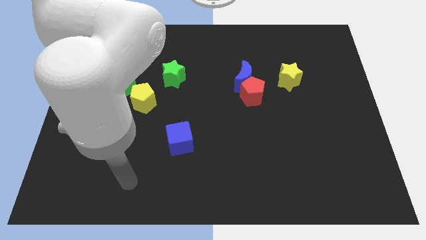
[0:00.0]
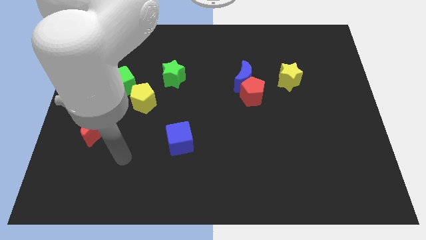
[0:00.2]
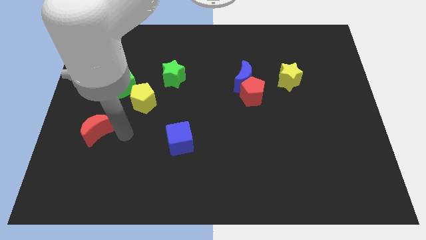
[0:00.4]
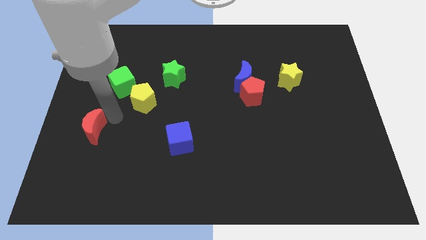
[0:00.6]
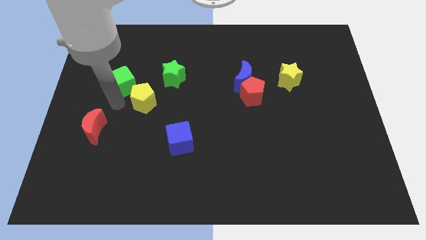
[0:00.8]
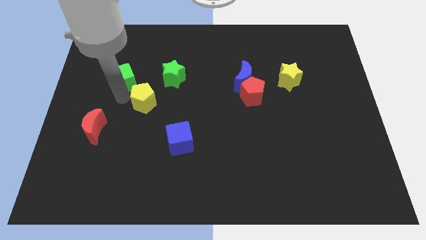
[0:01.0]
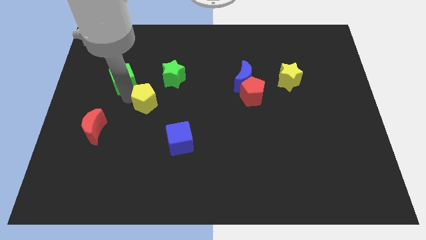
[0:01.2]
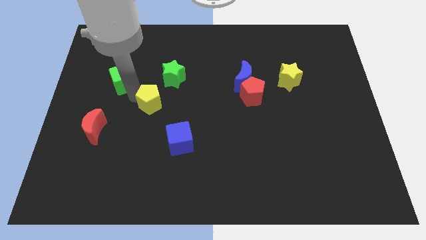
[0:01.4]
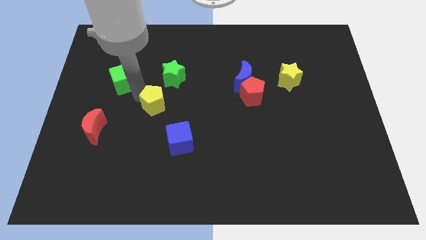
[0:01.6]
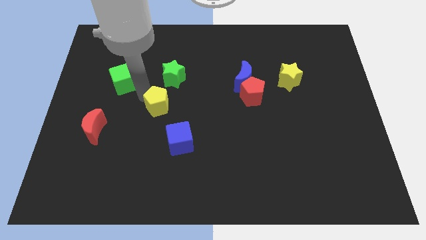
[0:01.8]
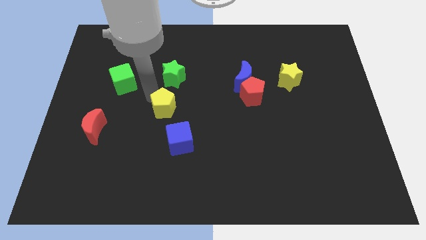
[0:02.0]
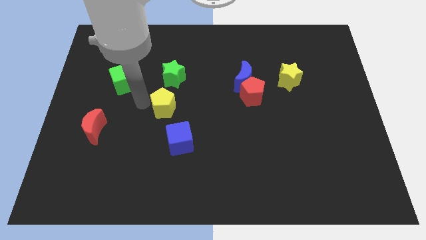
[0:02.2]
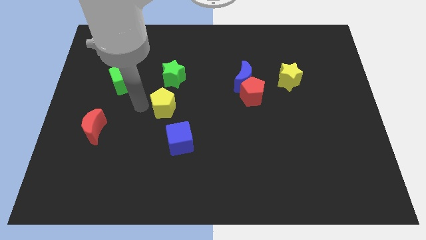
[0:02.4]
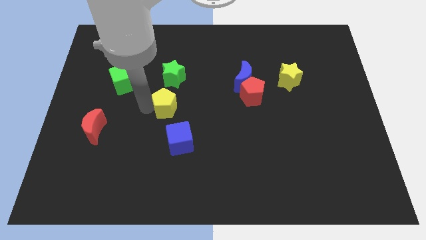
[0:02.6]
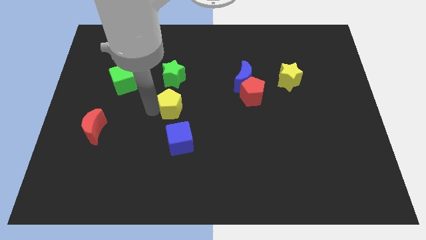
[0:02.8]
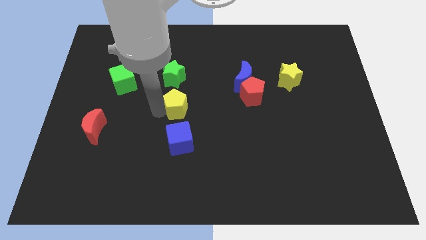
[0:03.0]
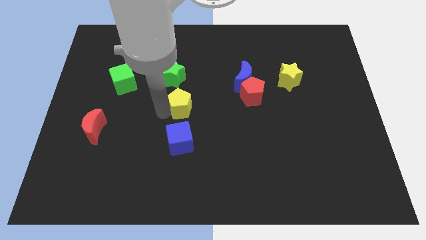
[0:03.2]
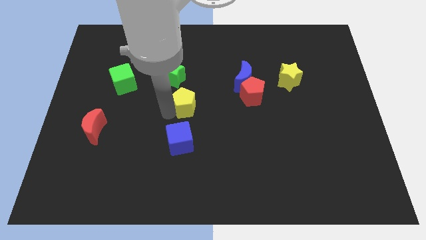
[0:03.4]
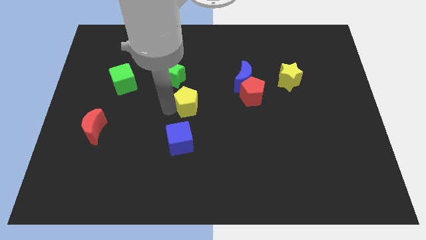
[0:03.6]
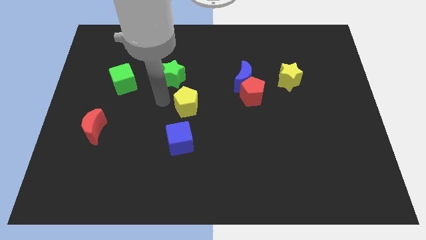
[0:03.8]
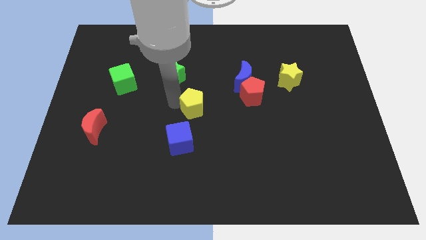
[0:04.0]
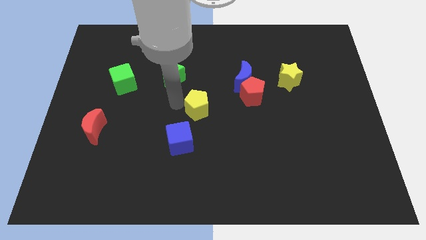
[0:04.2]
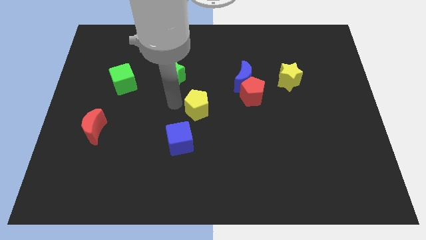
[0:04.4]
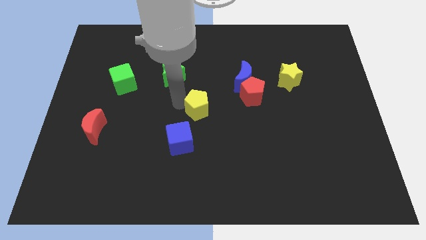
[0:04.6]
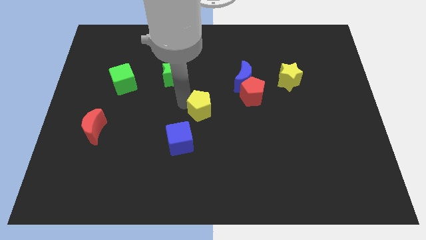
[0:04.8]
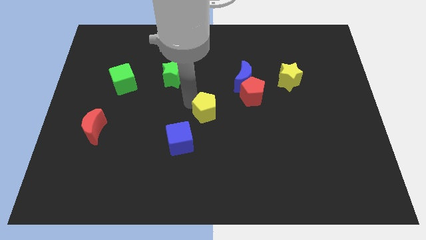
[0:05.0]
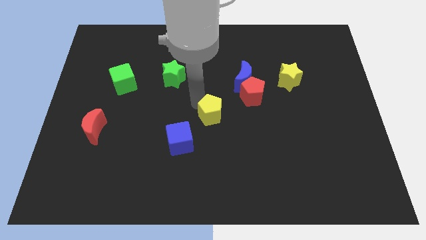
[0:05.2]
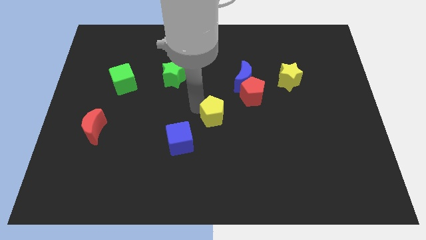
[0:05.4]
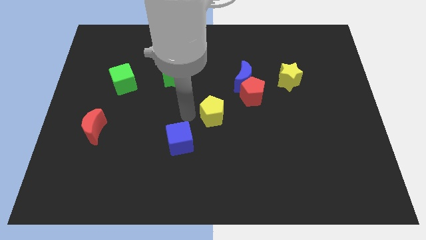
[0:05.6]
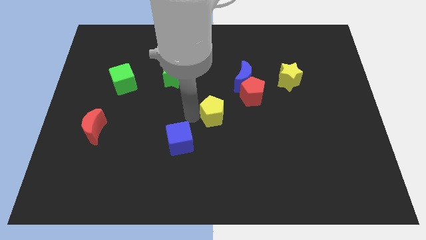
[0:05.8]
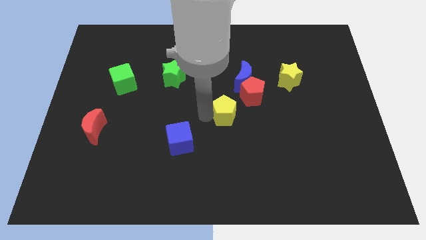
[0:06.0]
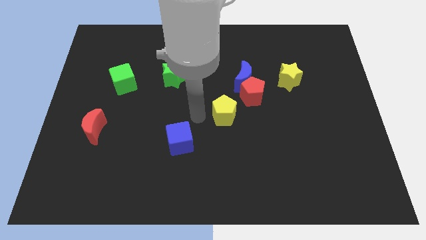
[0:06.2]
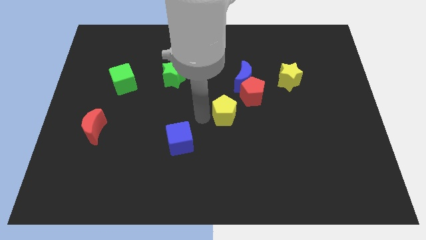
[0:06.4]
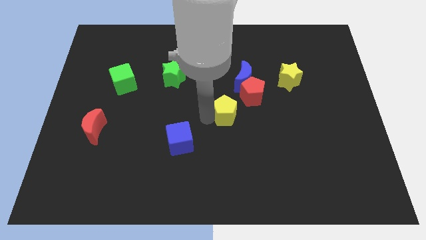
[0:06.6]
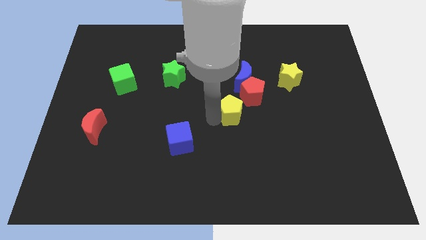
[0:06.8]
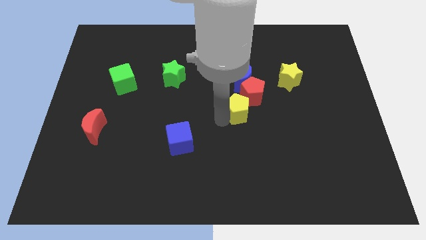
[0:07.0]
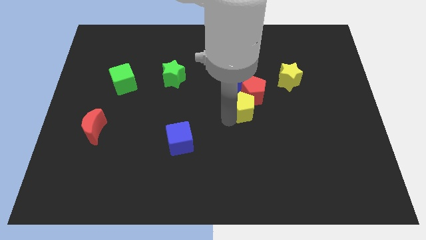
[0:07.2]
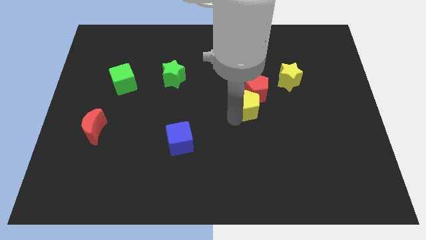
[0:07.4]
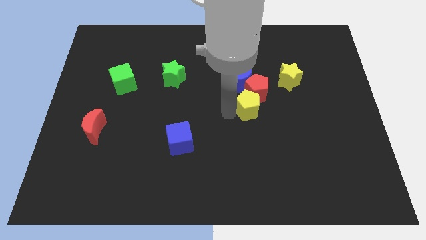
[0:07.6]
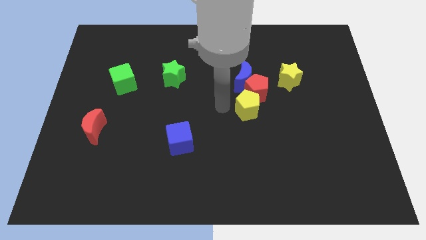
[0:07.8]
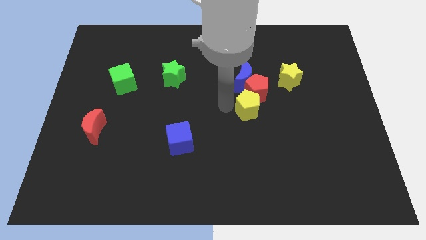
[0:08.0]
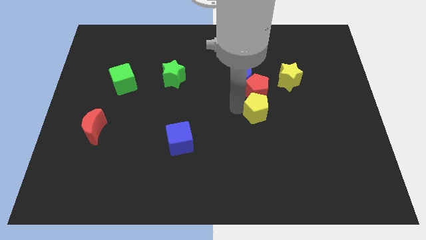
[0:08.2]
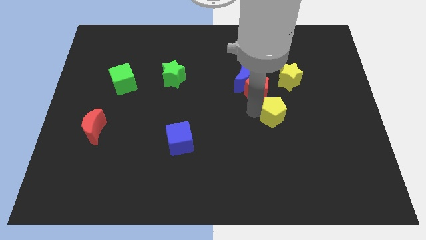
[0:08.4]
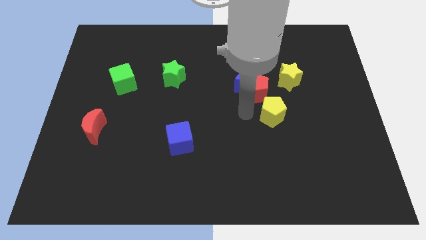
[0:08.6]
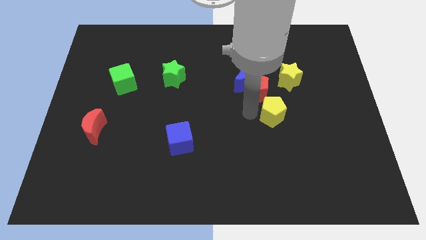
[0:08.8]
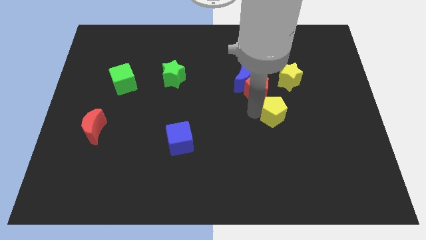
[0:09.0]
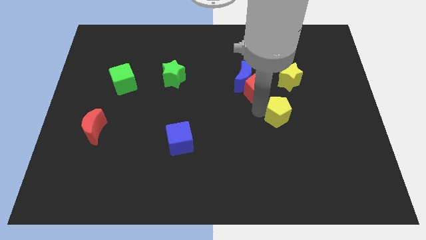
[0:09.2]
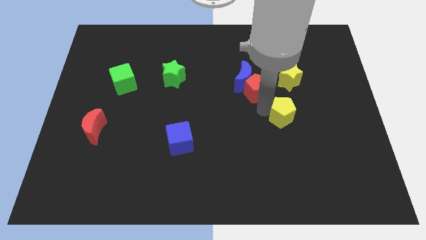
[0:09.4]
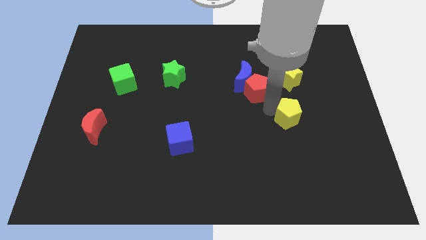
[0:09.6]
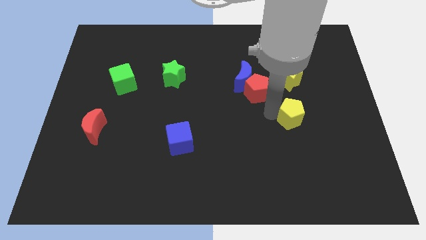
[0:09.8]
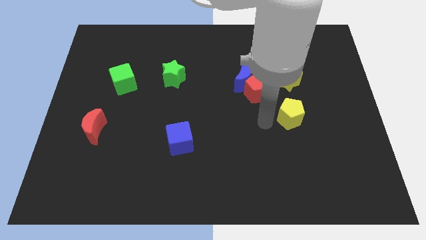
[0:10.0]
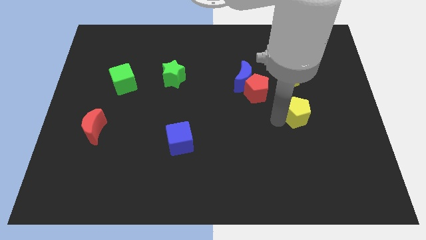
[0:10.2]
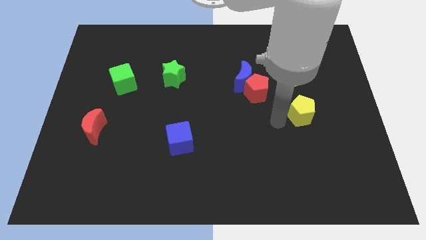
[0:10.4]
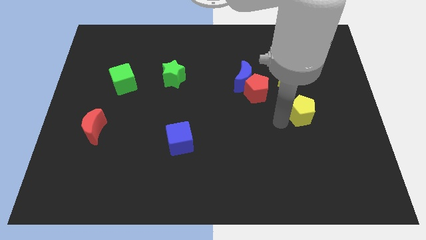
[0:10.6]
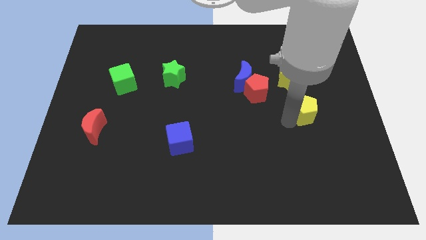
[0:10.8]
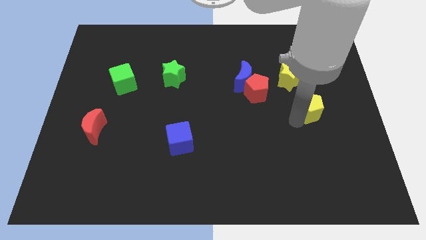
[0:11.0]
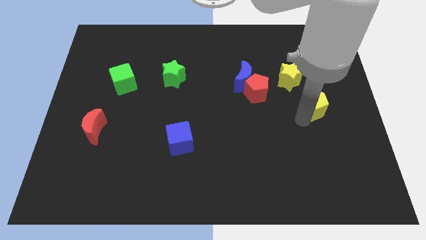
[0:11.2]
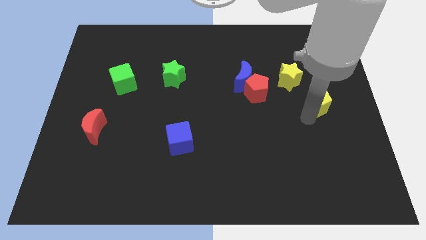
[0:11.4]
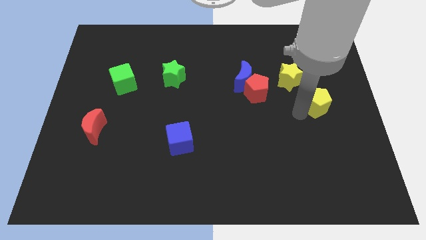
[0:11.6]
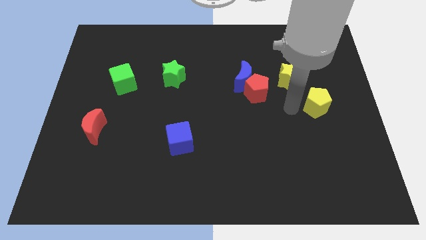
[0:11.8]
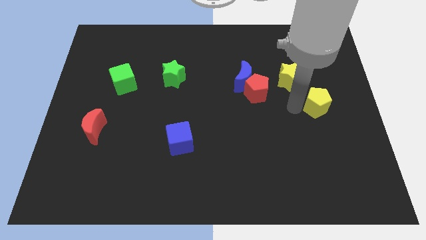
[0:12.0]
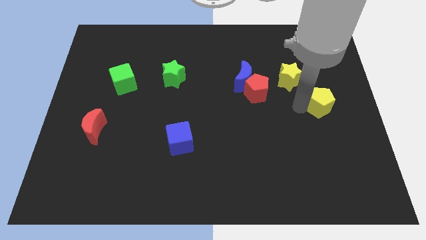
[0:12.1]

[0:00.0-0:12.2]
slide the yellow pentagon to the right side of the board
